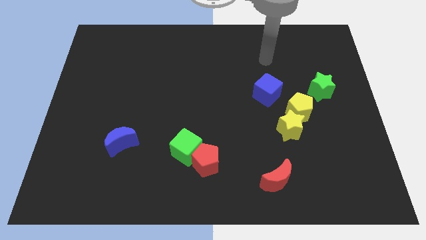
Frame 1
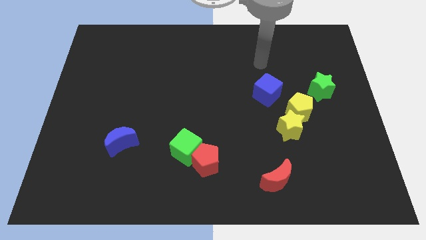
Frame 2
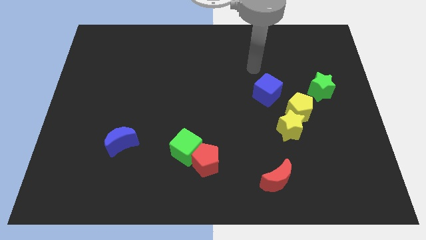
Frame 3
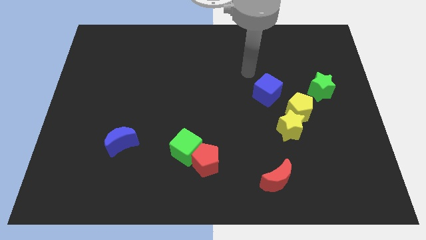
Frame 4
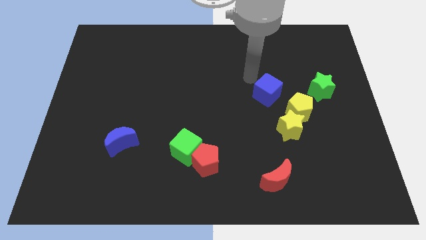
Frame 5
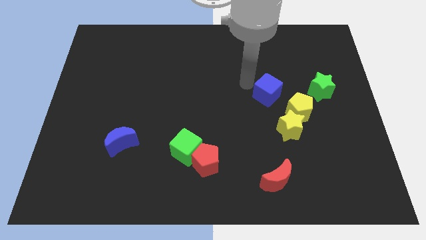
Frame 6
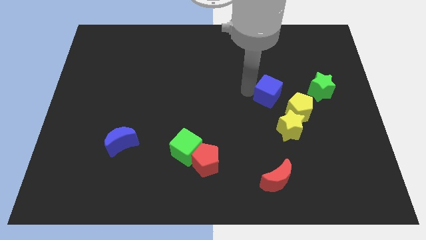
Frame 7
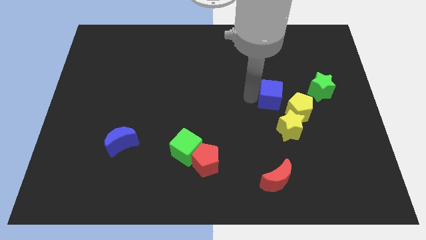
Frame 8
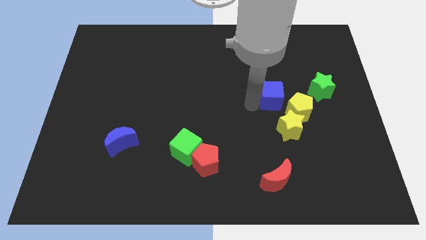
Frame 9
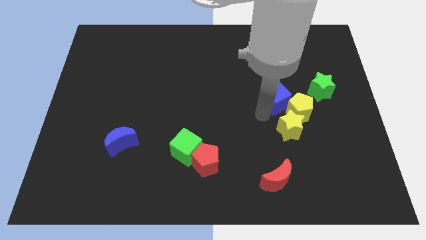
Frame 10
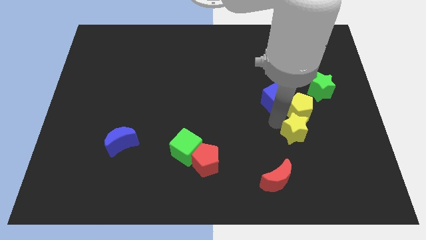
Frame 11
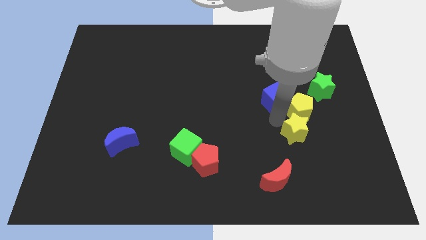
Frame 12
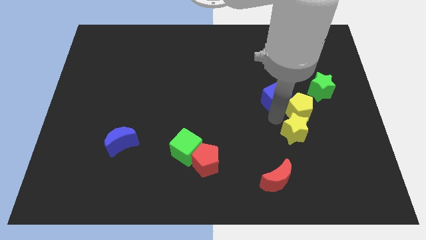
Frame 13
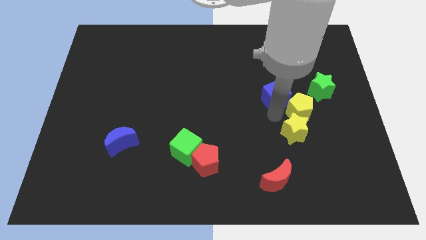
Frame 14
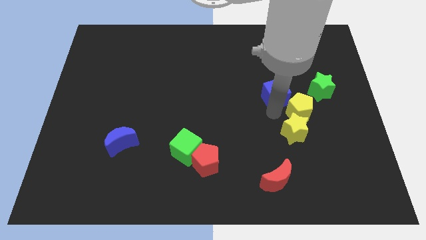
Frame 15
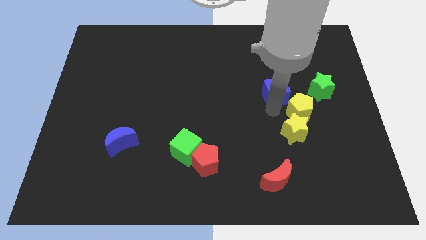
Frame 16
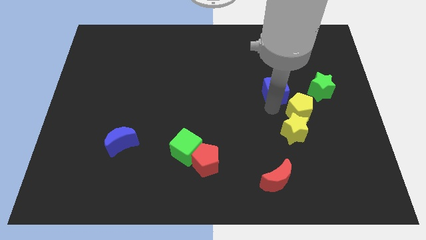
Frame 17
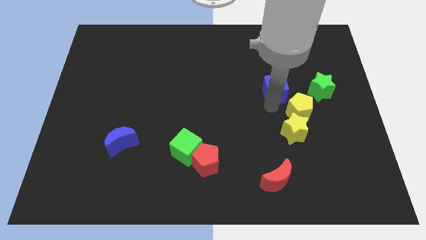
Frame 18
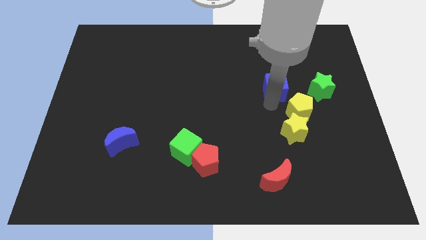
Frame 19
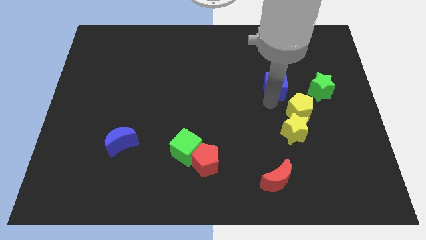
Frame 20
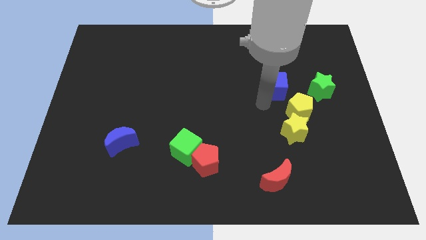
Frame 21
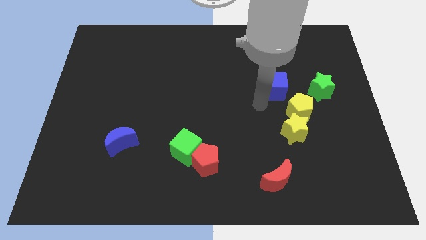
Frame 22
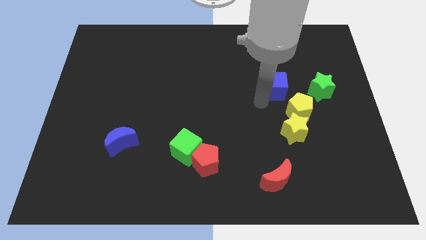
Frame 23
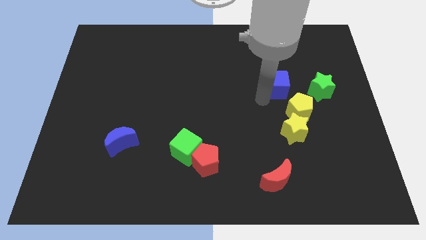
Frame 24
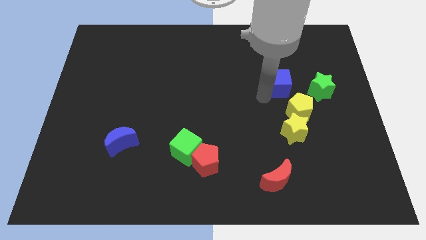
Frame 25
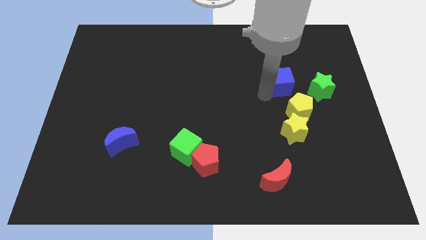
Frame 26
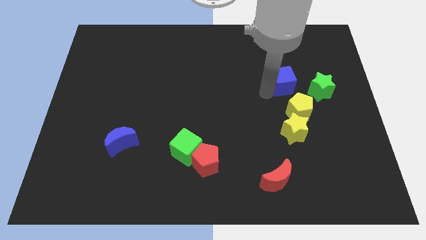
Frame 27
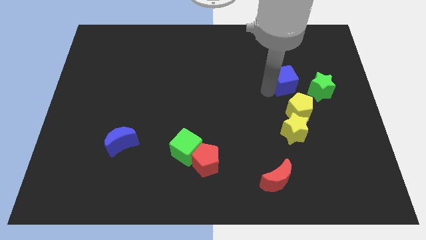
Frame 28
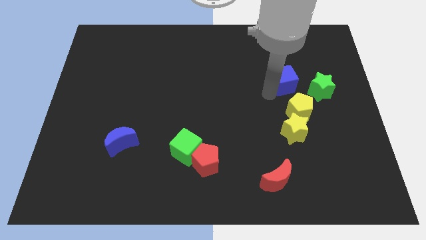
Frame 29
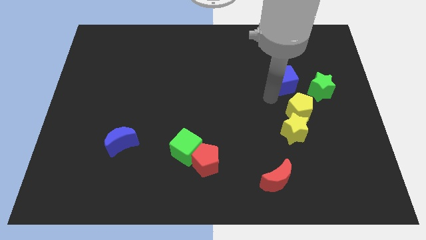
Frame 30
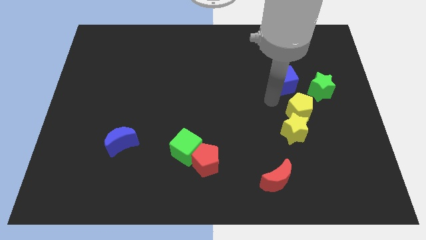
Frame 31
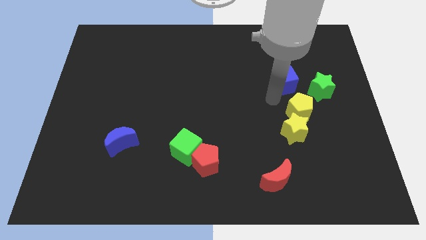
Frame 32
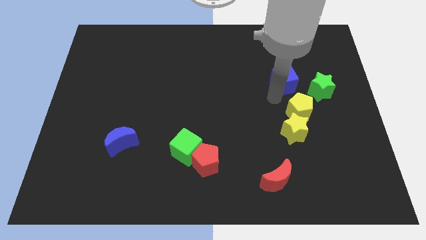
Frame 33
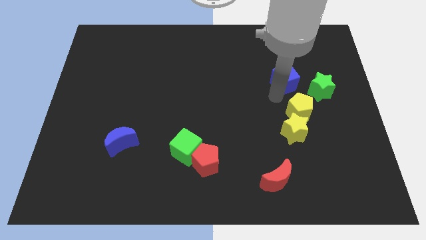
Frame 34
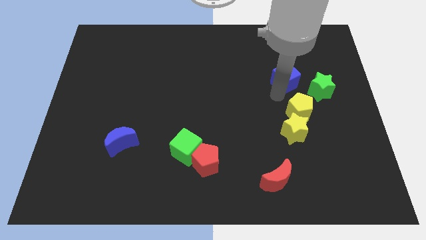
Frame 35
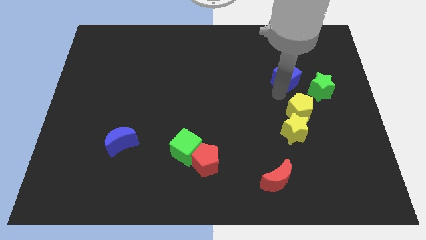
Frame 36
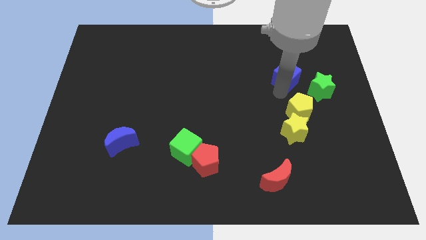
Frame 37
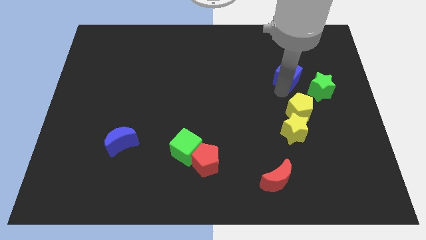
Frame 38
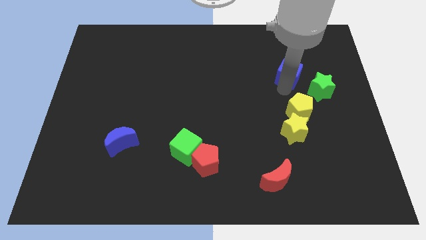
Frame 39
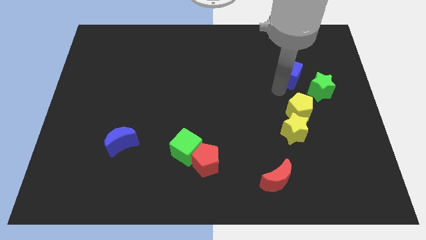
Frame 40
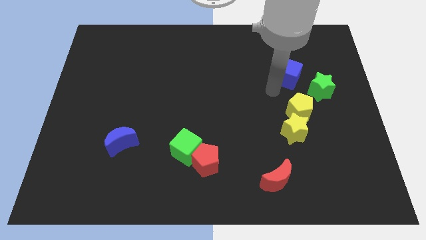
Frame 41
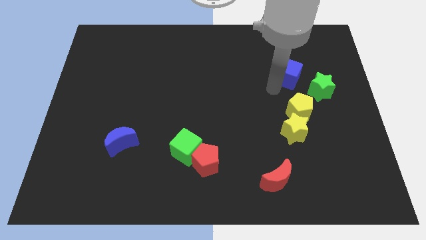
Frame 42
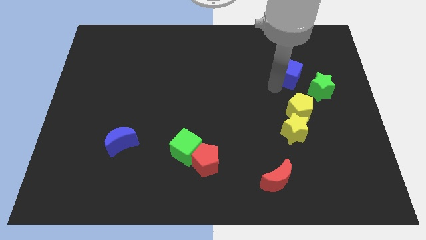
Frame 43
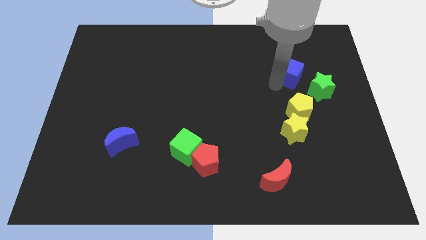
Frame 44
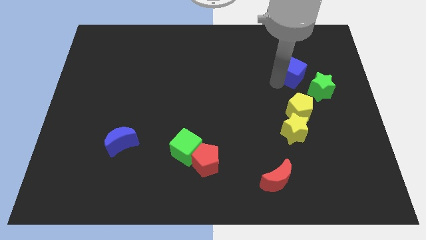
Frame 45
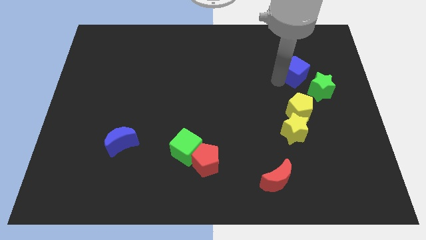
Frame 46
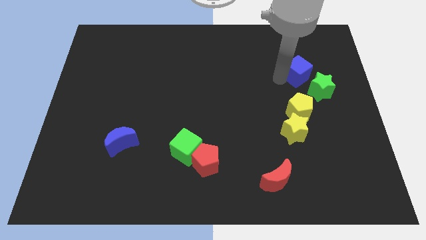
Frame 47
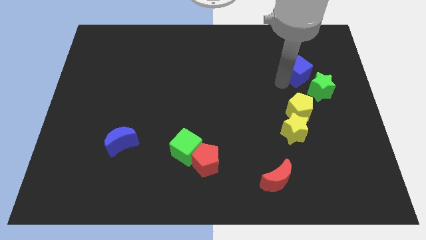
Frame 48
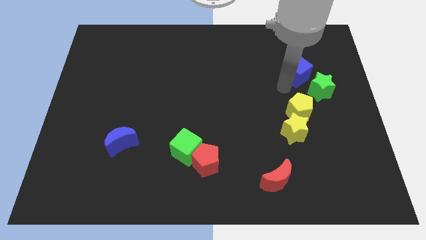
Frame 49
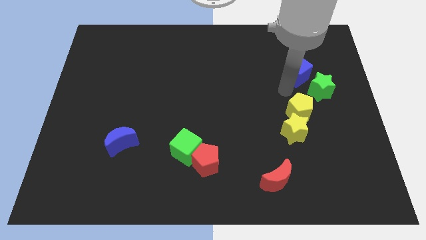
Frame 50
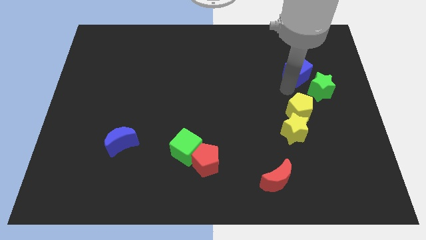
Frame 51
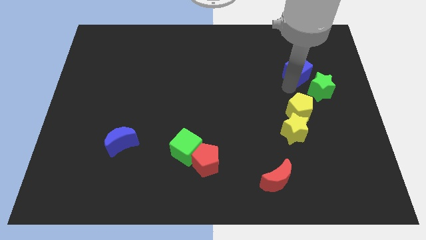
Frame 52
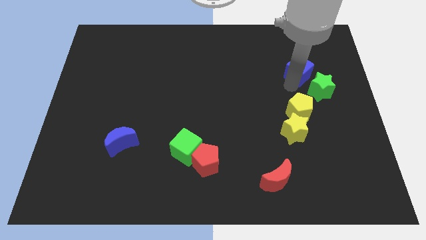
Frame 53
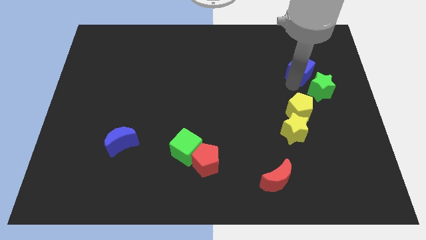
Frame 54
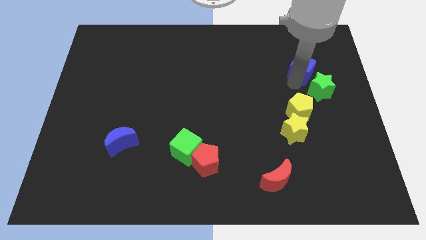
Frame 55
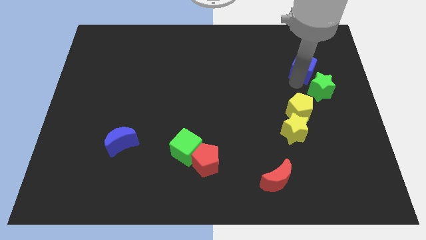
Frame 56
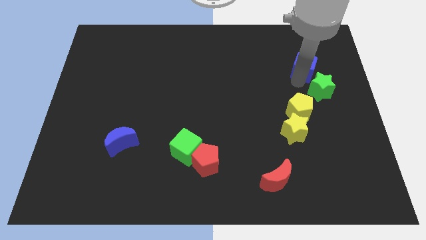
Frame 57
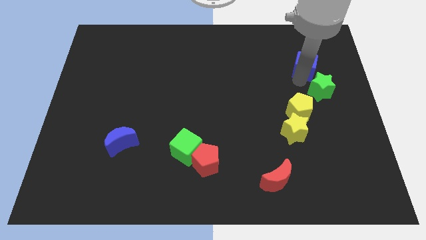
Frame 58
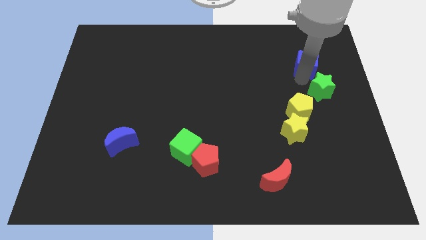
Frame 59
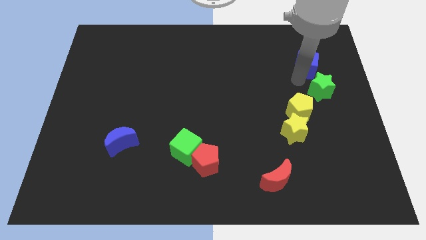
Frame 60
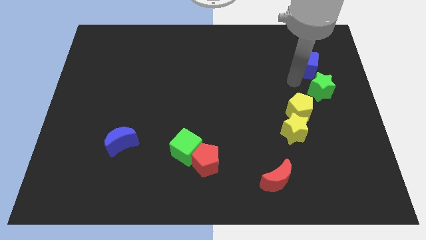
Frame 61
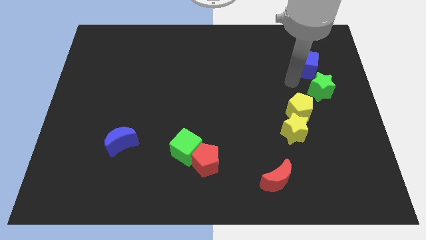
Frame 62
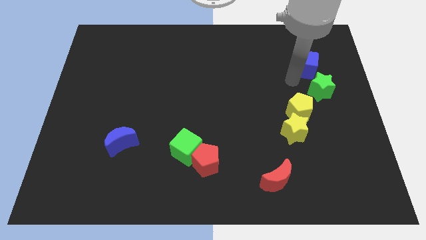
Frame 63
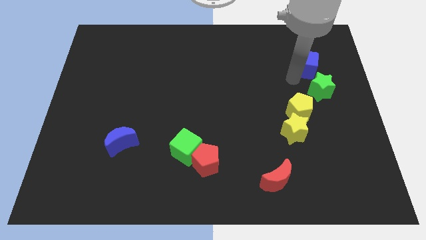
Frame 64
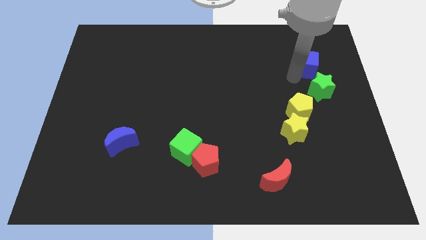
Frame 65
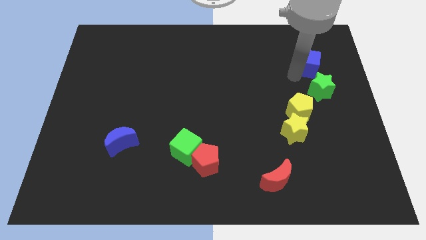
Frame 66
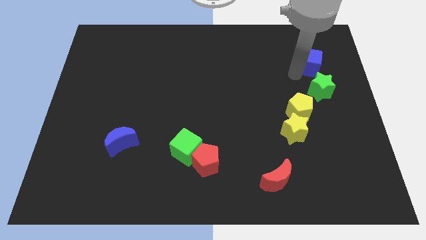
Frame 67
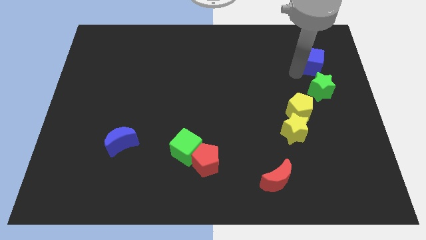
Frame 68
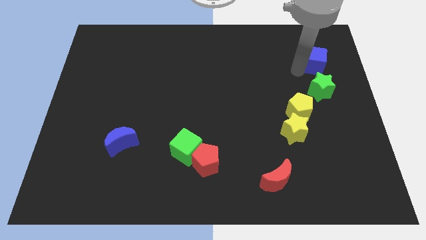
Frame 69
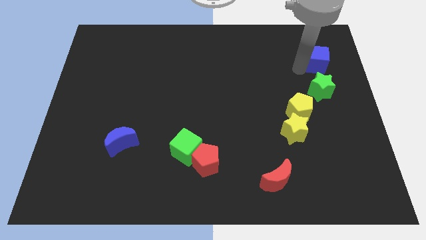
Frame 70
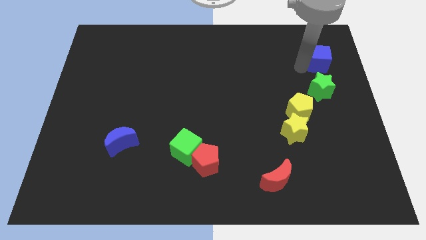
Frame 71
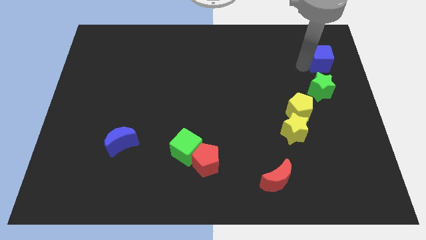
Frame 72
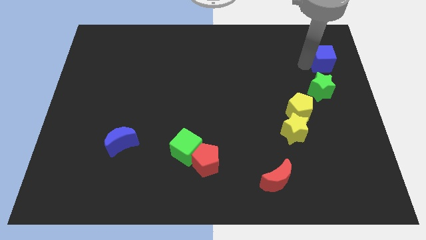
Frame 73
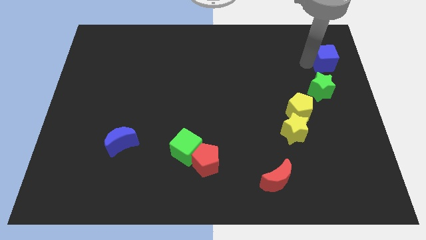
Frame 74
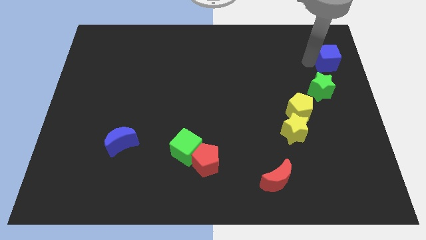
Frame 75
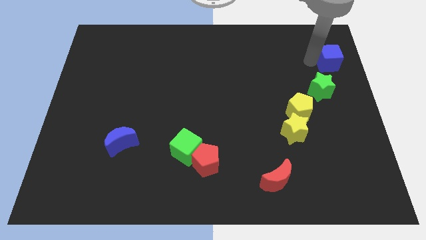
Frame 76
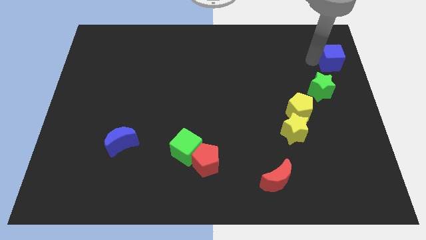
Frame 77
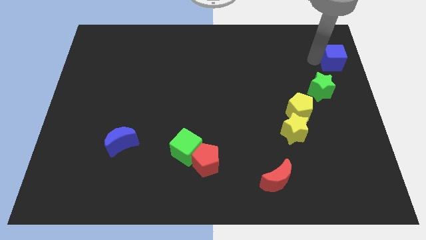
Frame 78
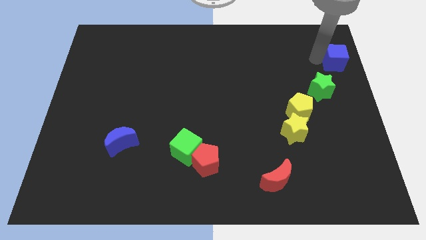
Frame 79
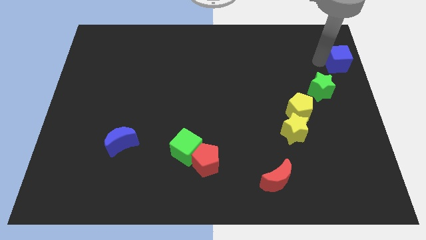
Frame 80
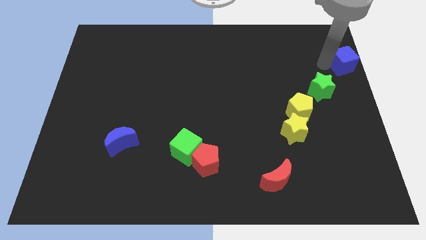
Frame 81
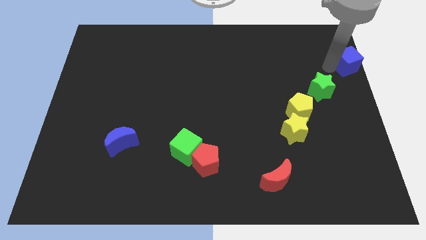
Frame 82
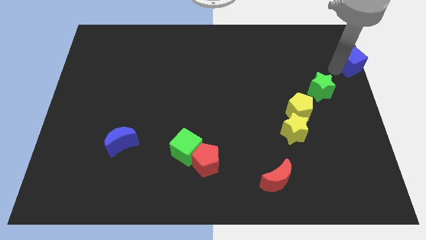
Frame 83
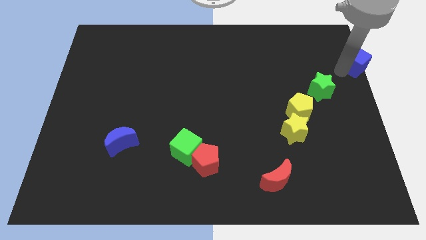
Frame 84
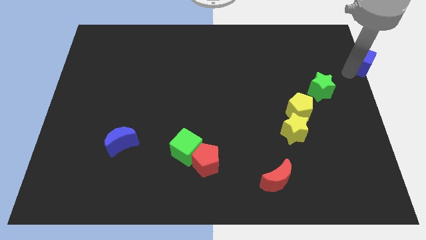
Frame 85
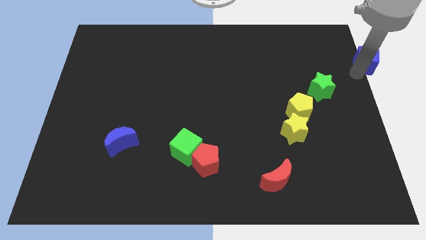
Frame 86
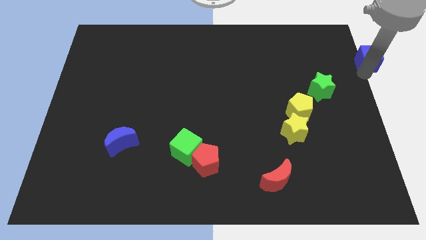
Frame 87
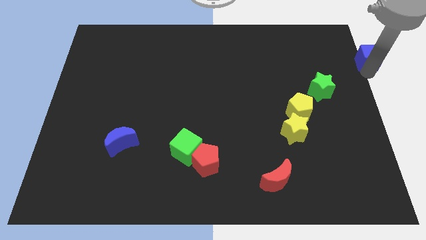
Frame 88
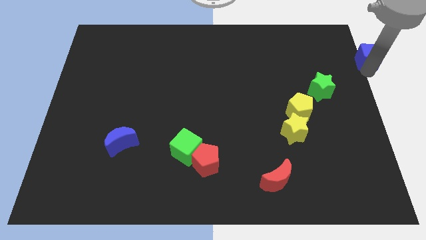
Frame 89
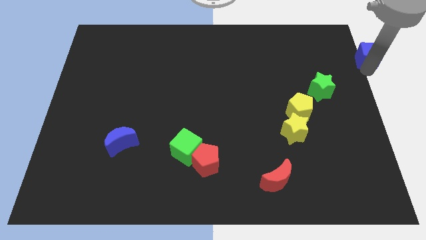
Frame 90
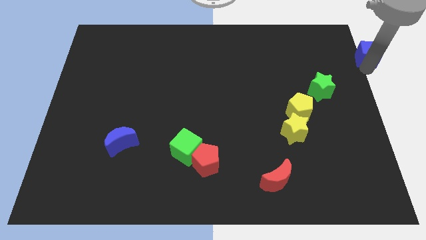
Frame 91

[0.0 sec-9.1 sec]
put the blue cube to the upper right corner
